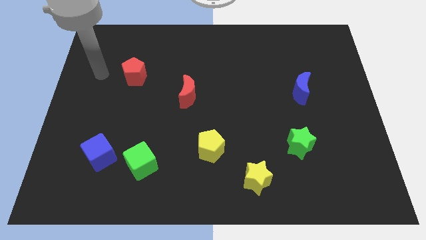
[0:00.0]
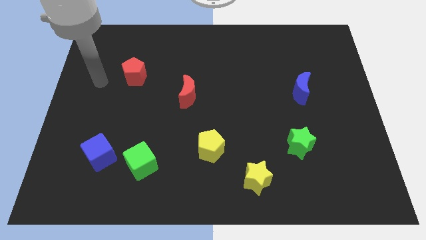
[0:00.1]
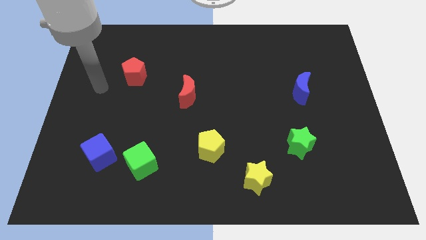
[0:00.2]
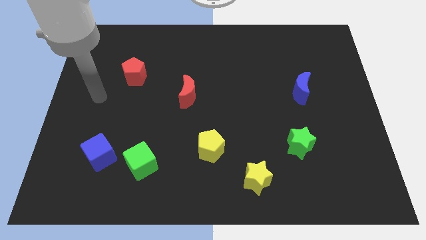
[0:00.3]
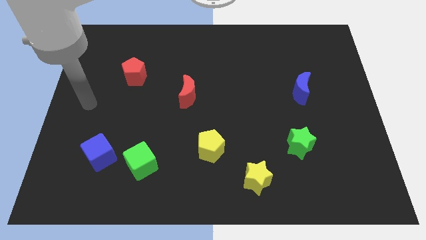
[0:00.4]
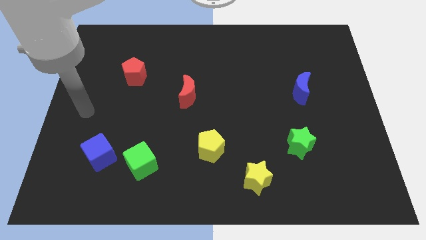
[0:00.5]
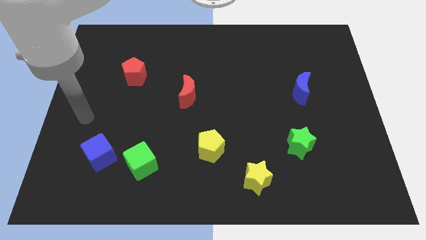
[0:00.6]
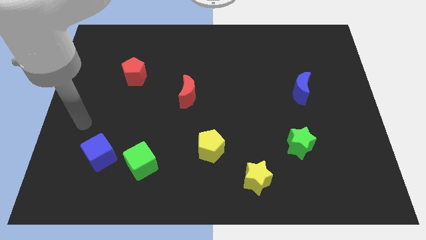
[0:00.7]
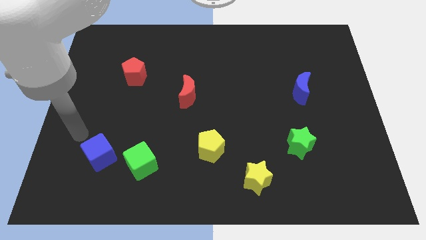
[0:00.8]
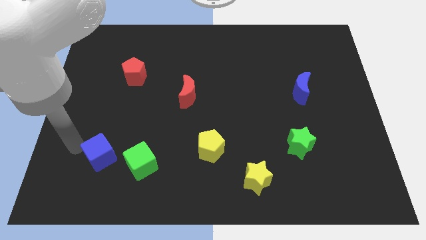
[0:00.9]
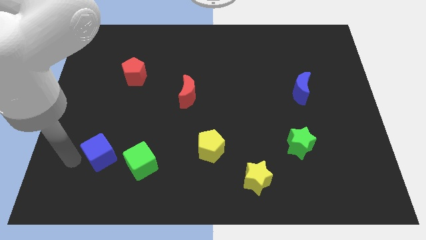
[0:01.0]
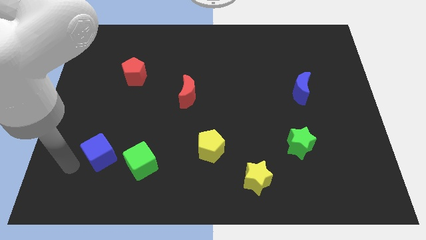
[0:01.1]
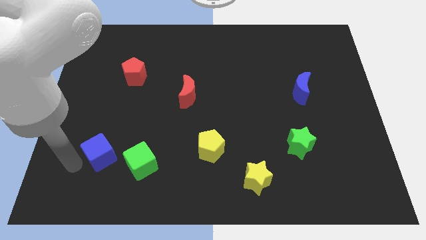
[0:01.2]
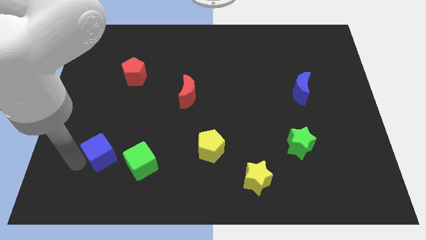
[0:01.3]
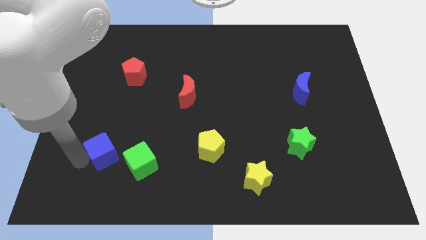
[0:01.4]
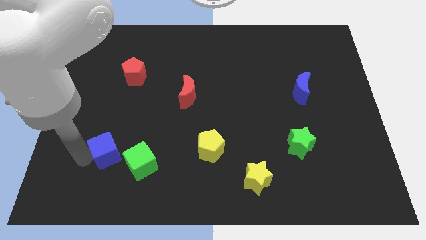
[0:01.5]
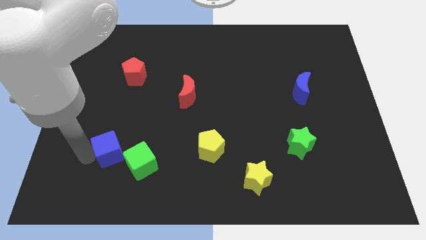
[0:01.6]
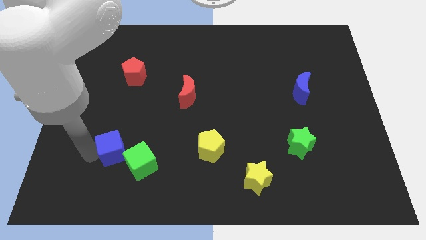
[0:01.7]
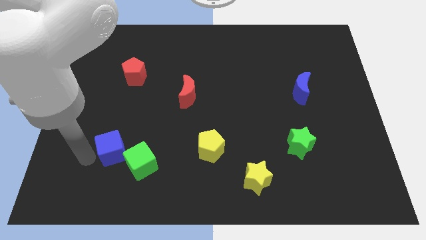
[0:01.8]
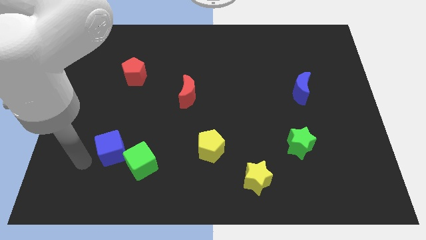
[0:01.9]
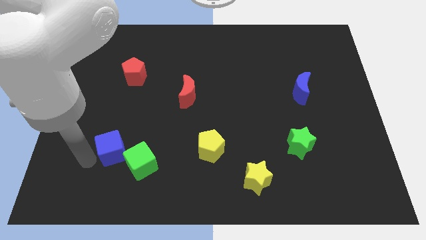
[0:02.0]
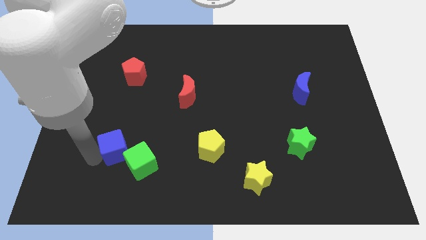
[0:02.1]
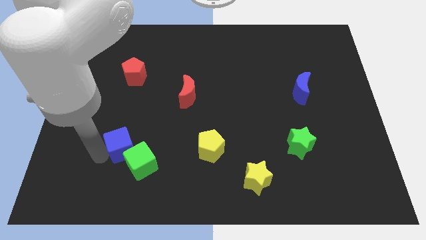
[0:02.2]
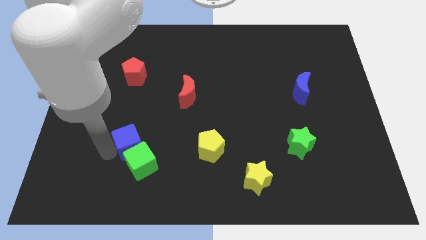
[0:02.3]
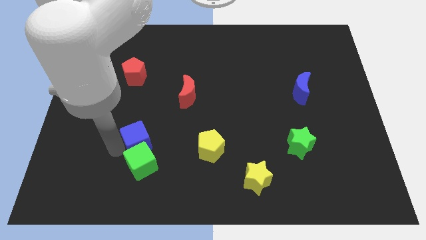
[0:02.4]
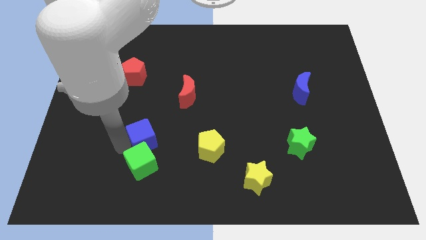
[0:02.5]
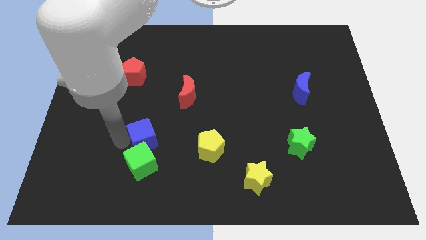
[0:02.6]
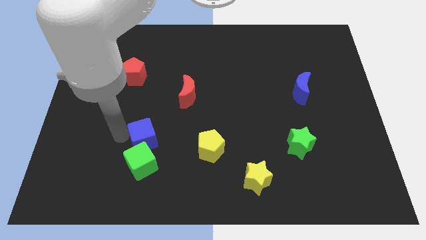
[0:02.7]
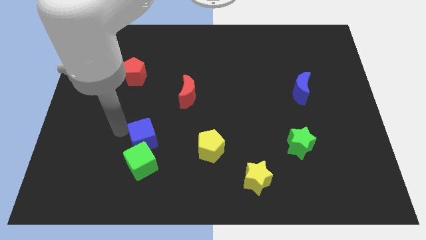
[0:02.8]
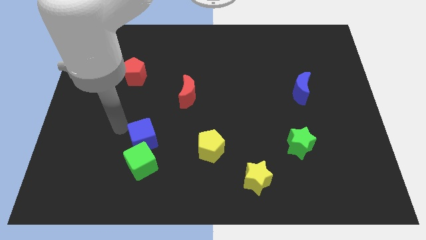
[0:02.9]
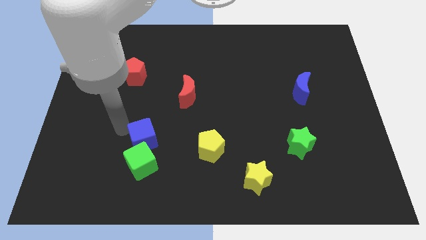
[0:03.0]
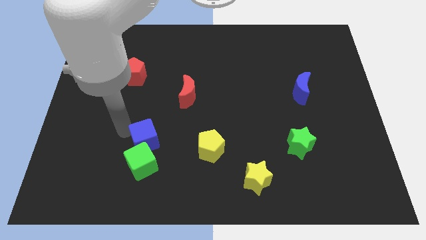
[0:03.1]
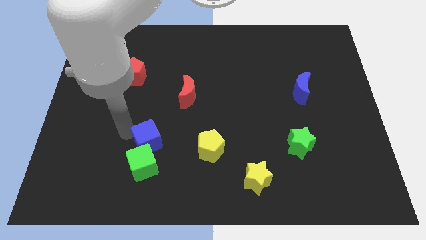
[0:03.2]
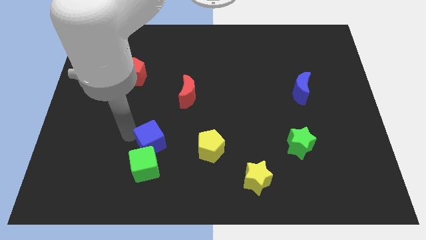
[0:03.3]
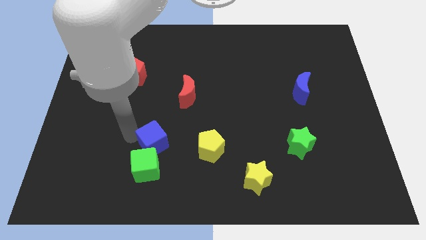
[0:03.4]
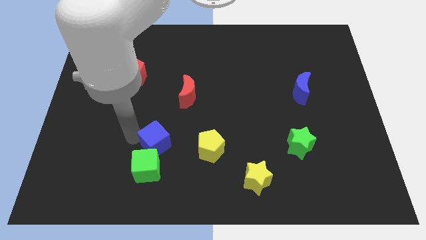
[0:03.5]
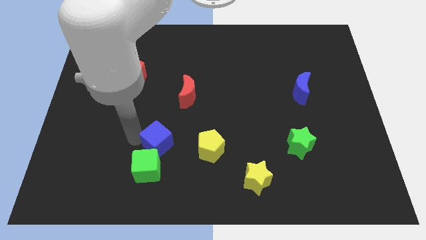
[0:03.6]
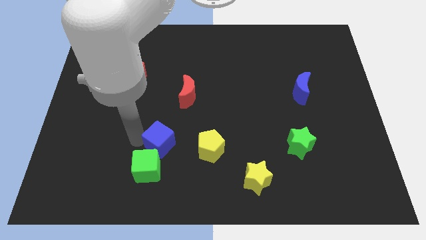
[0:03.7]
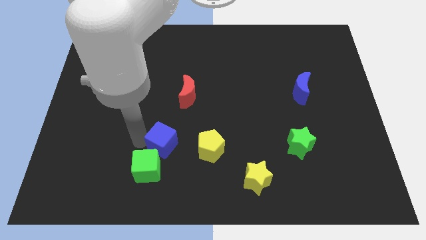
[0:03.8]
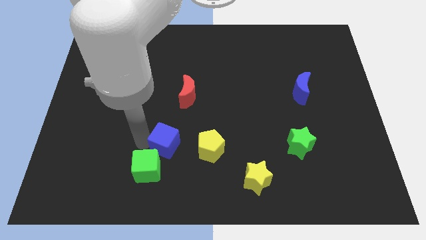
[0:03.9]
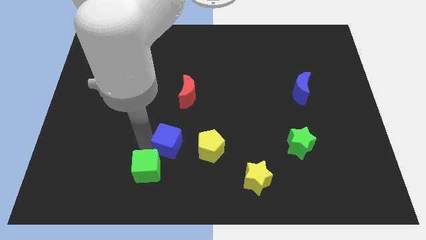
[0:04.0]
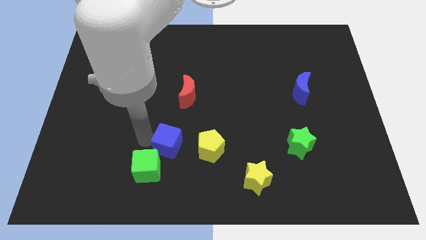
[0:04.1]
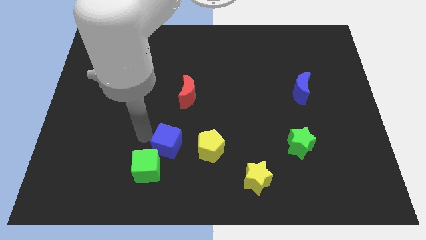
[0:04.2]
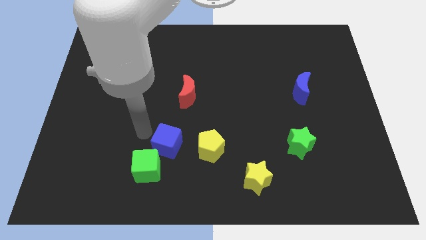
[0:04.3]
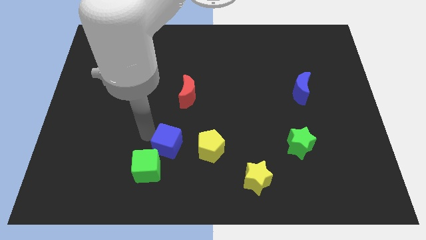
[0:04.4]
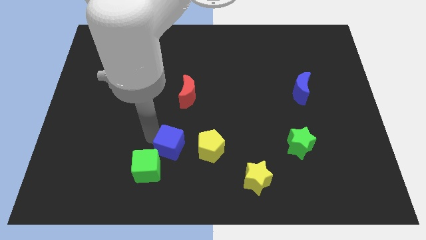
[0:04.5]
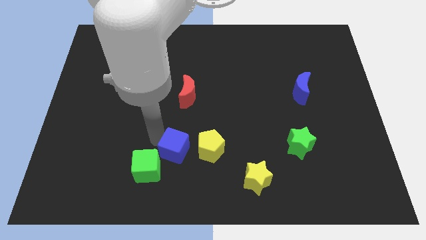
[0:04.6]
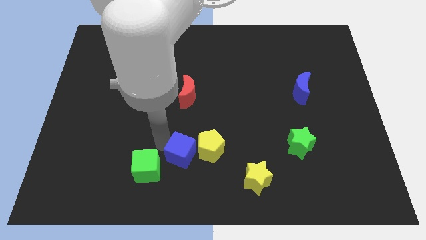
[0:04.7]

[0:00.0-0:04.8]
move the blue cube towards the yellow pentagon

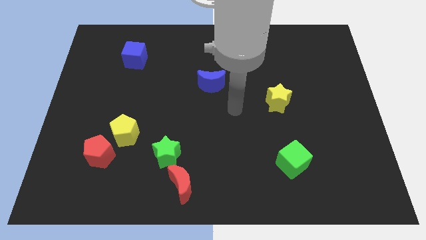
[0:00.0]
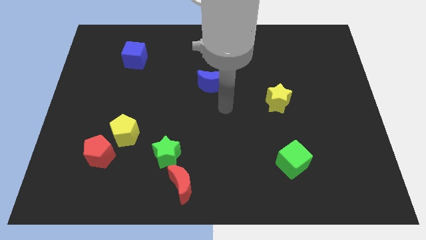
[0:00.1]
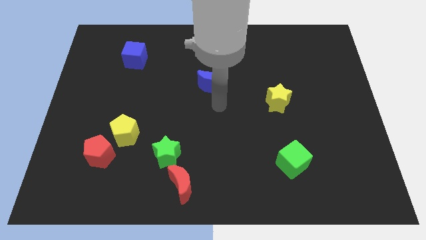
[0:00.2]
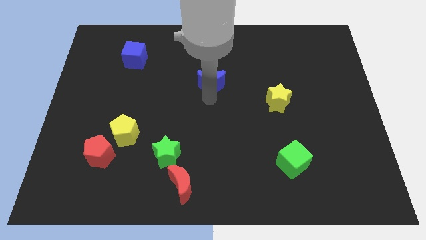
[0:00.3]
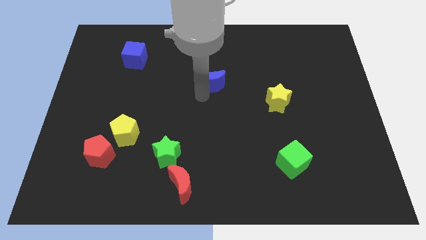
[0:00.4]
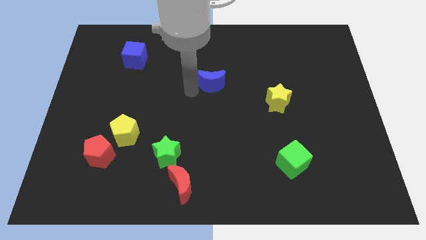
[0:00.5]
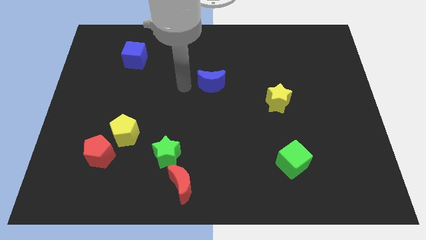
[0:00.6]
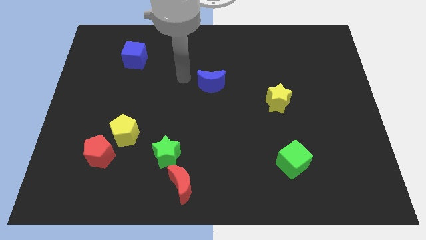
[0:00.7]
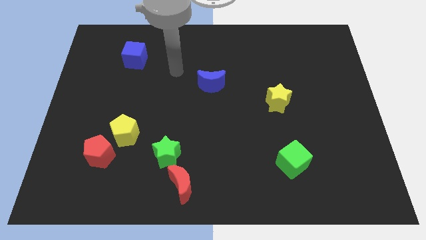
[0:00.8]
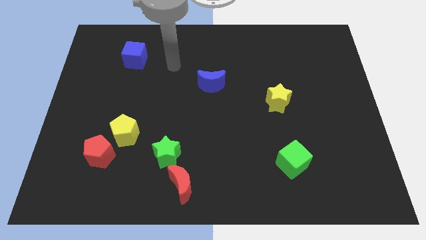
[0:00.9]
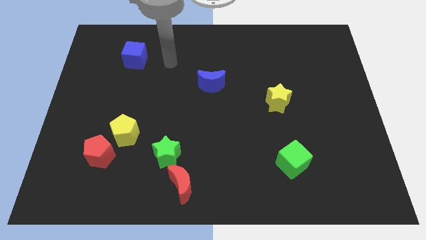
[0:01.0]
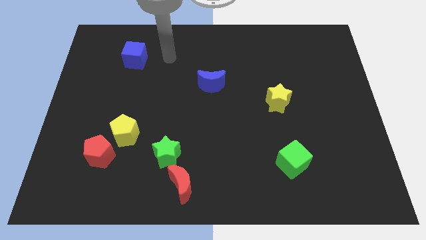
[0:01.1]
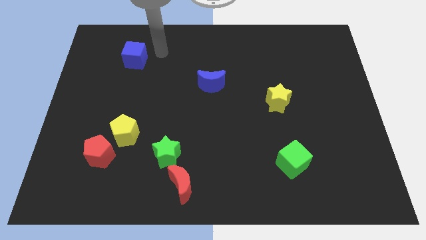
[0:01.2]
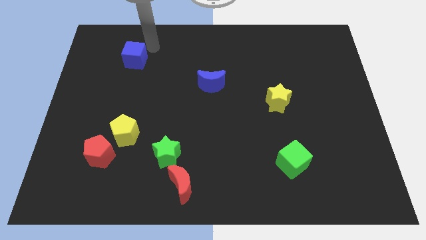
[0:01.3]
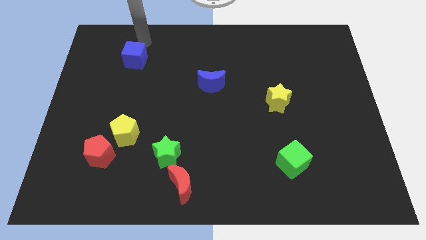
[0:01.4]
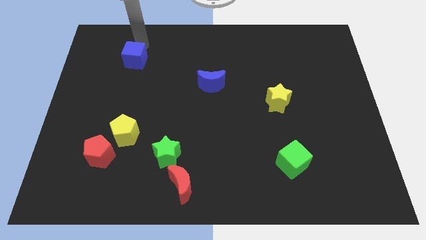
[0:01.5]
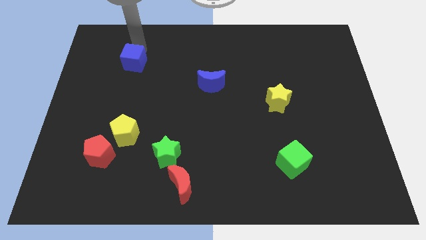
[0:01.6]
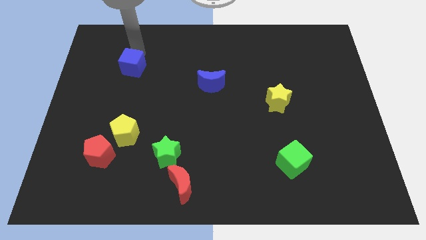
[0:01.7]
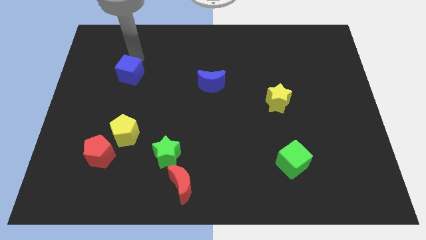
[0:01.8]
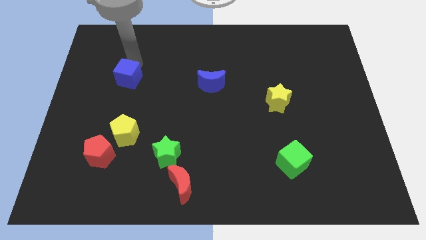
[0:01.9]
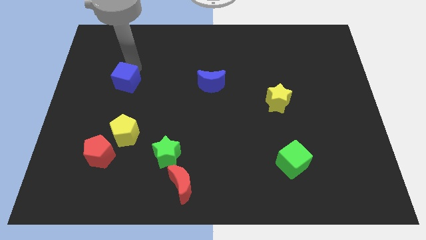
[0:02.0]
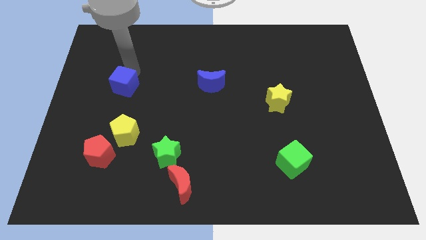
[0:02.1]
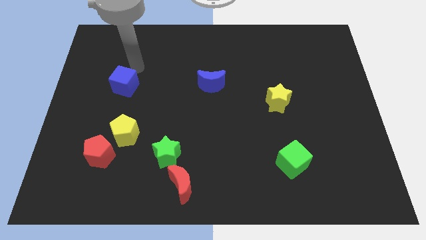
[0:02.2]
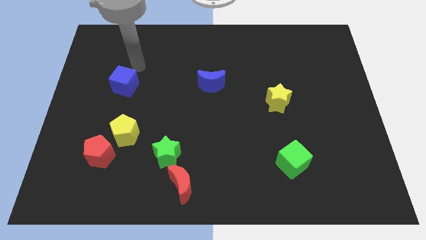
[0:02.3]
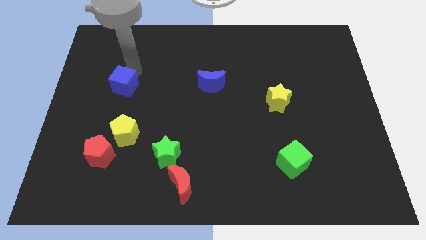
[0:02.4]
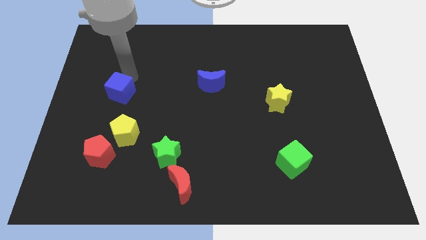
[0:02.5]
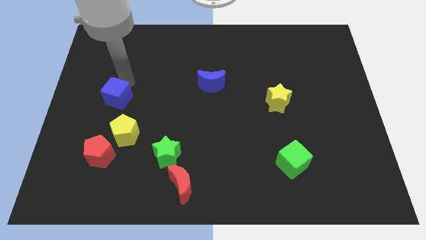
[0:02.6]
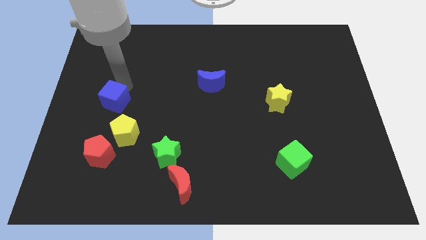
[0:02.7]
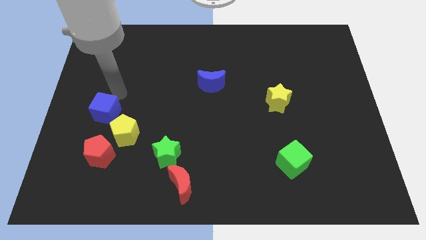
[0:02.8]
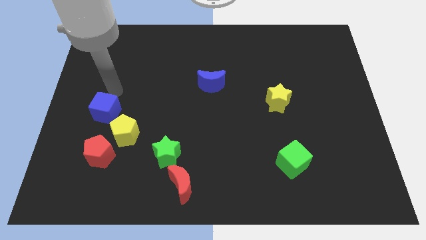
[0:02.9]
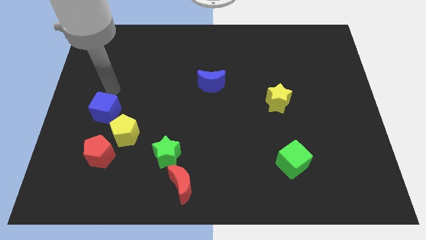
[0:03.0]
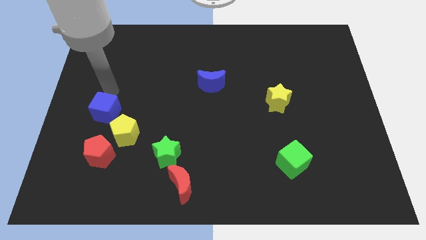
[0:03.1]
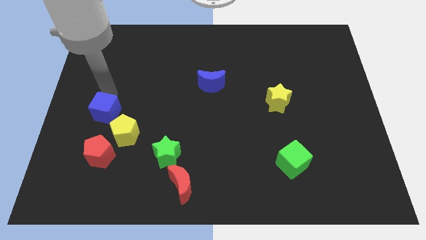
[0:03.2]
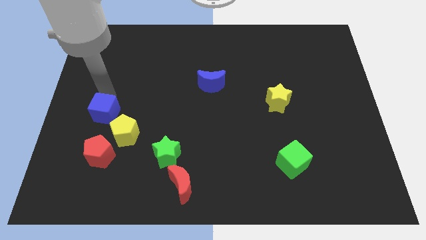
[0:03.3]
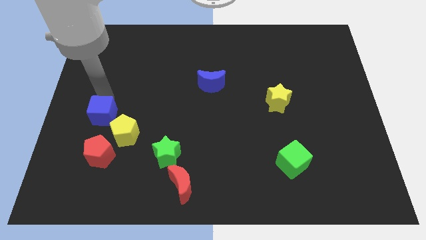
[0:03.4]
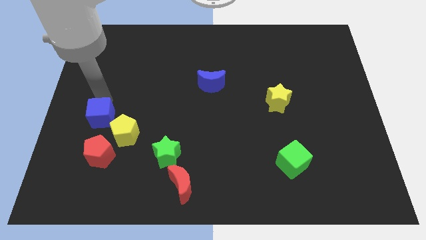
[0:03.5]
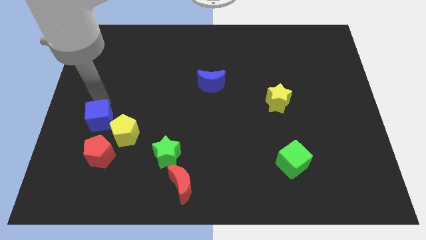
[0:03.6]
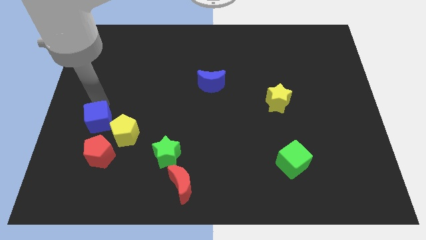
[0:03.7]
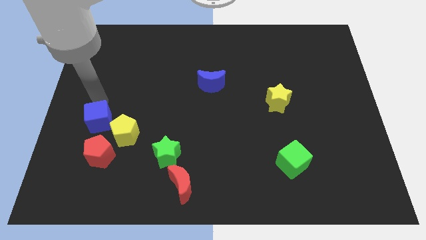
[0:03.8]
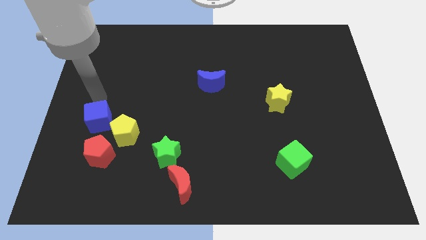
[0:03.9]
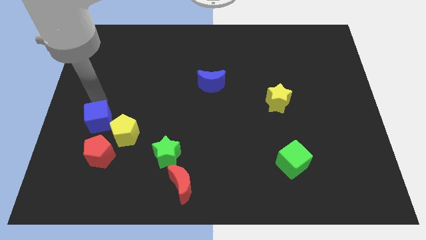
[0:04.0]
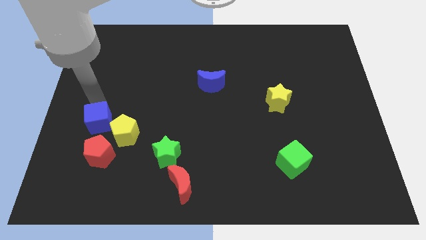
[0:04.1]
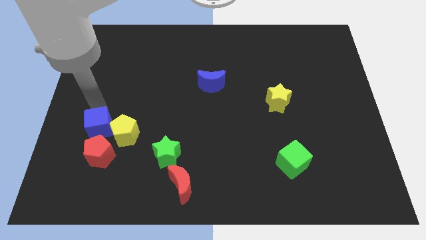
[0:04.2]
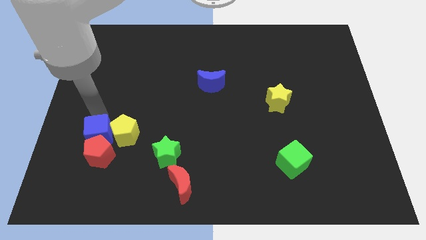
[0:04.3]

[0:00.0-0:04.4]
move the blue cube next to the red pentagon
